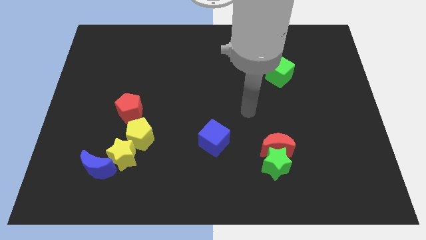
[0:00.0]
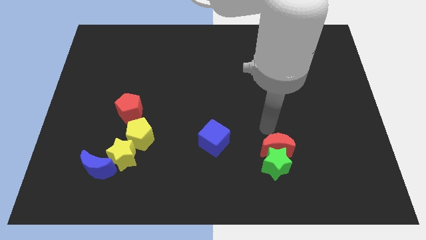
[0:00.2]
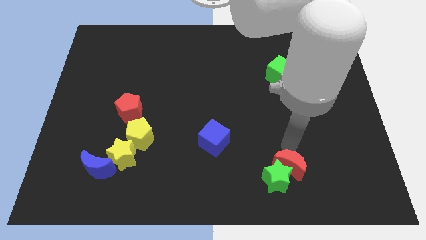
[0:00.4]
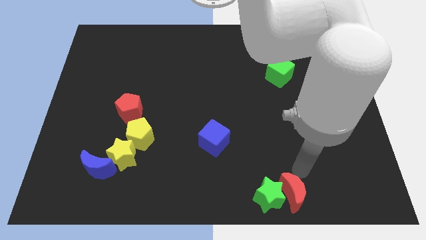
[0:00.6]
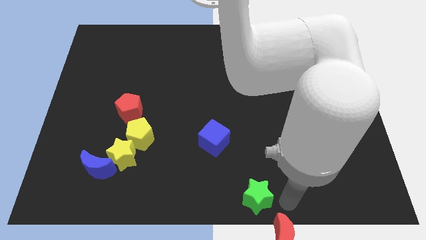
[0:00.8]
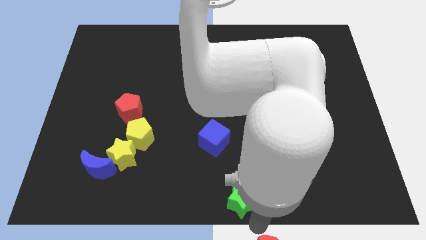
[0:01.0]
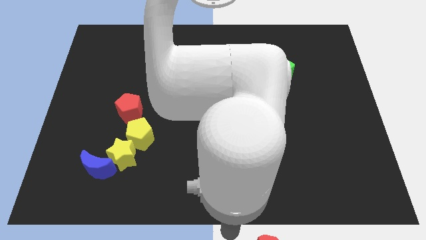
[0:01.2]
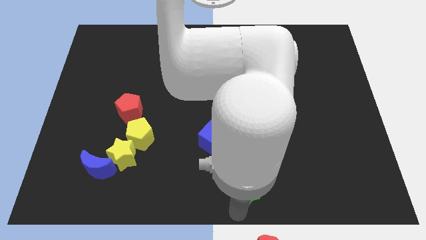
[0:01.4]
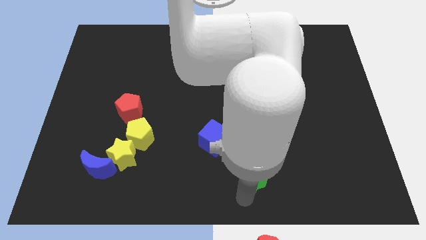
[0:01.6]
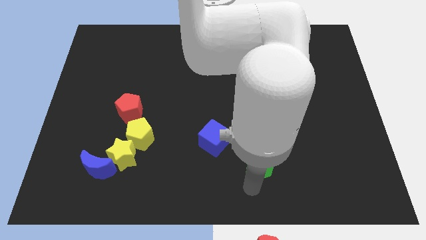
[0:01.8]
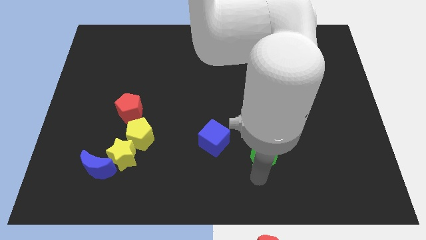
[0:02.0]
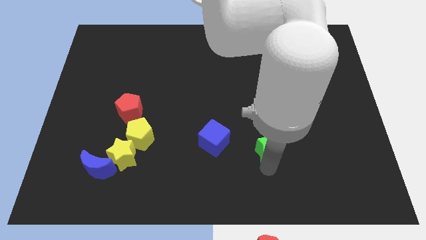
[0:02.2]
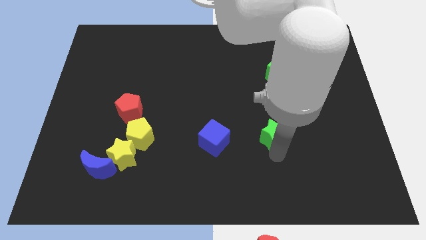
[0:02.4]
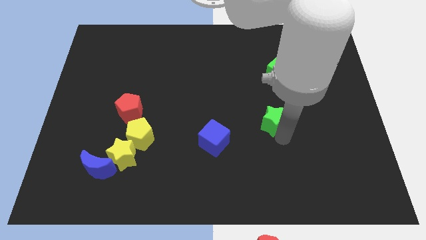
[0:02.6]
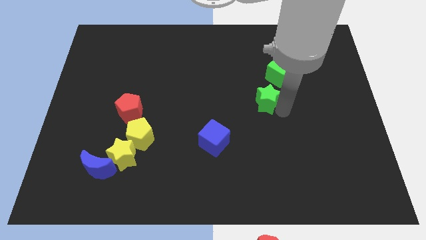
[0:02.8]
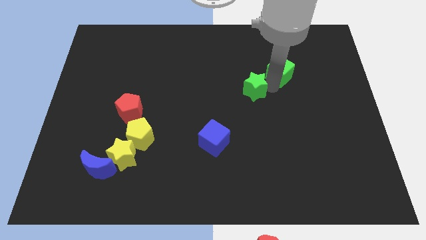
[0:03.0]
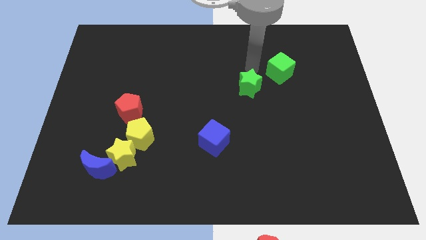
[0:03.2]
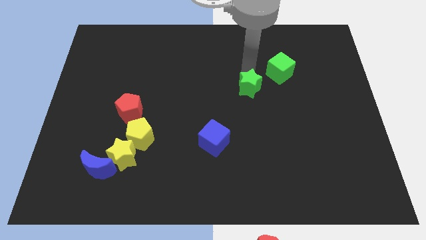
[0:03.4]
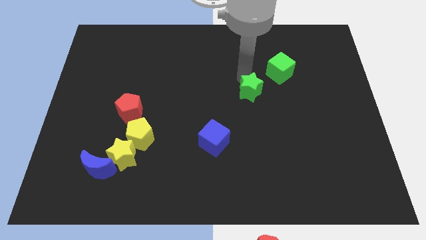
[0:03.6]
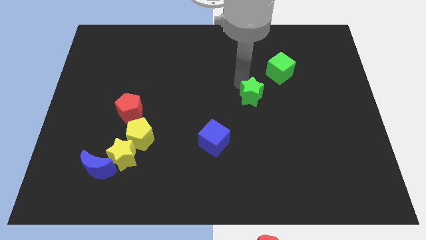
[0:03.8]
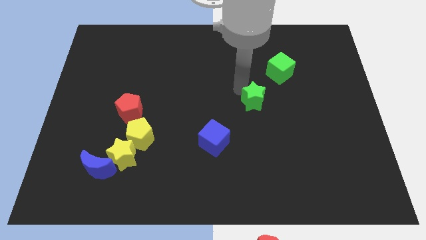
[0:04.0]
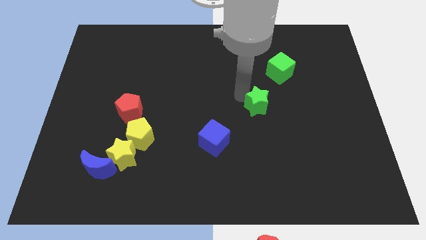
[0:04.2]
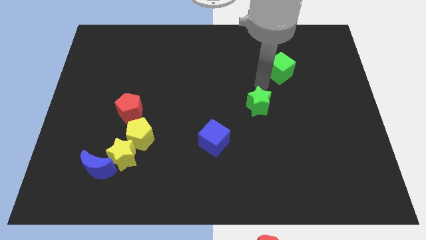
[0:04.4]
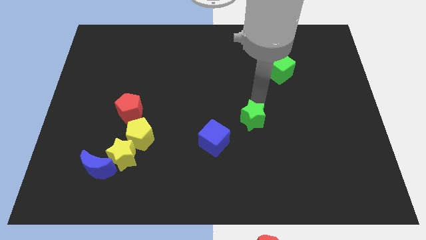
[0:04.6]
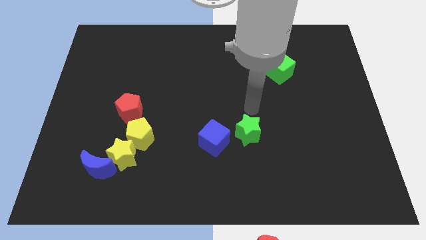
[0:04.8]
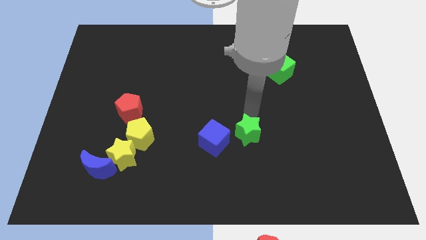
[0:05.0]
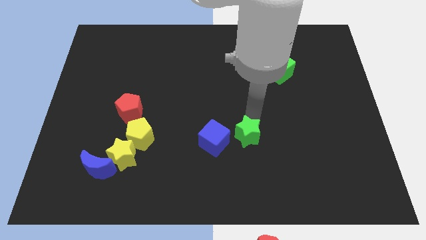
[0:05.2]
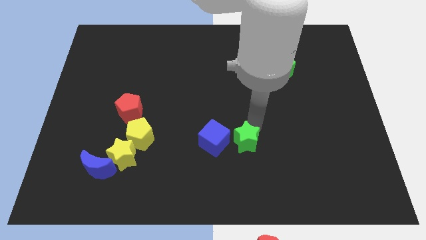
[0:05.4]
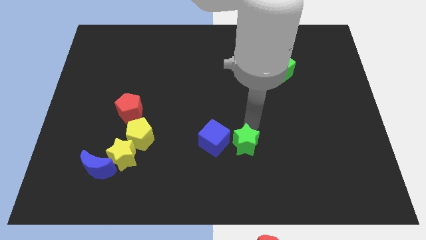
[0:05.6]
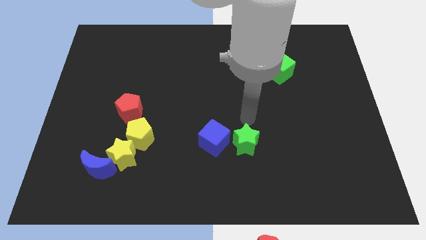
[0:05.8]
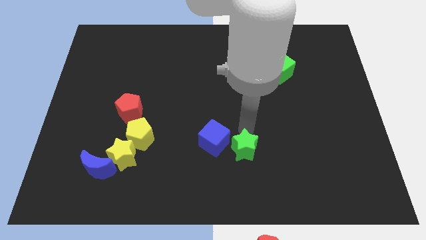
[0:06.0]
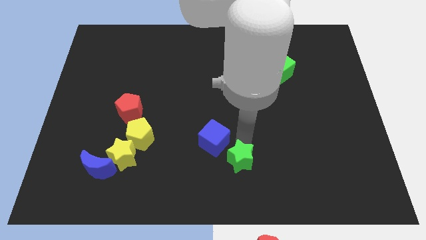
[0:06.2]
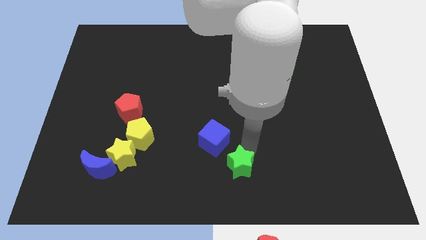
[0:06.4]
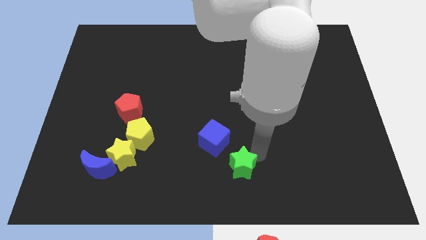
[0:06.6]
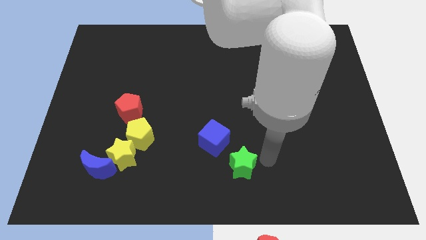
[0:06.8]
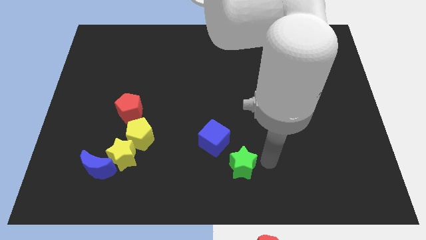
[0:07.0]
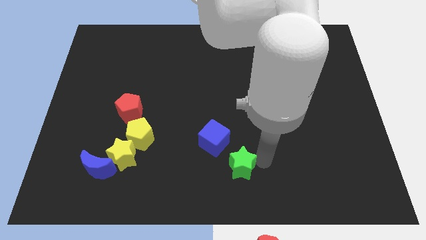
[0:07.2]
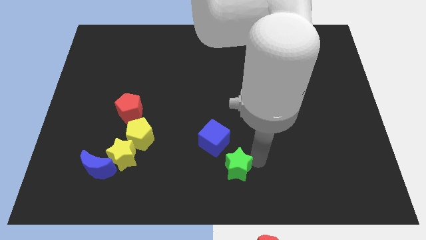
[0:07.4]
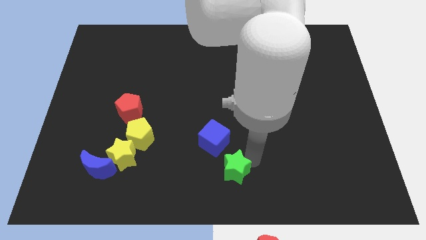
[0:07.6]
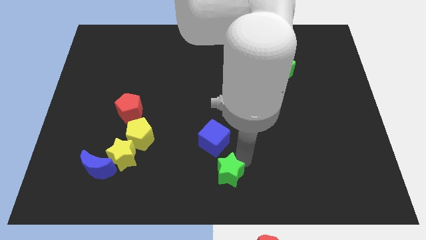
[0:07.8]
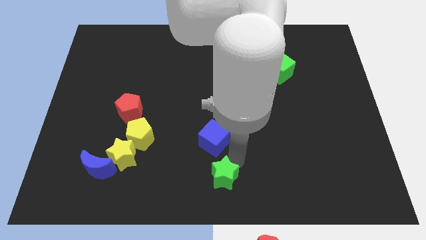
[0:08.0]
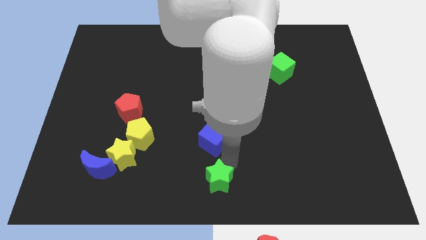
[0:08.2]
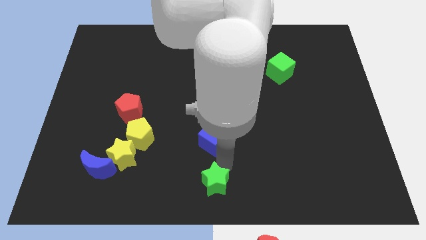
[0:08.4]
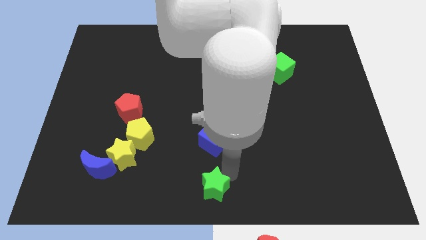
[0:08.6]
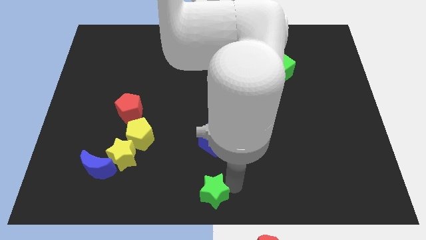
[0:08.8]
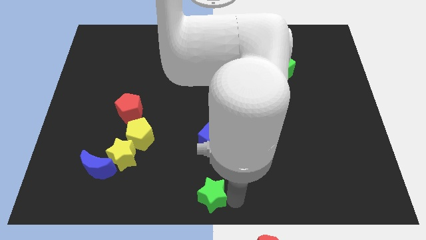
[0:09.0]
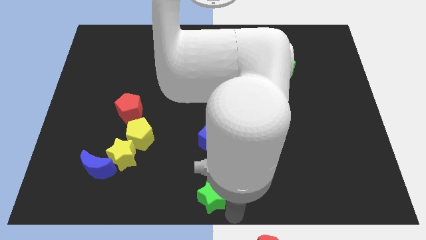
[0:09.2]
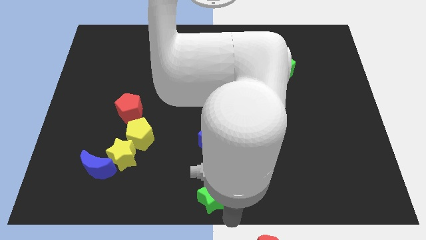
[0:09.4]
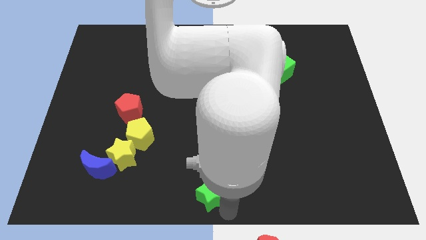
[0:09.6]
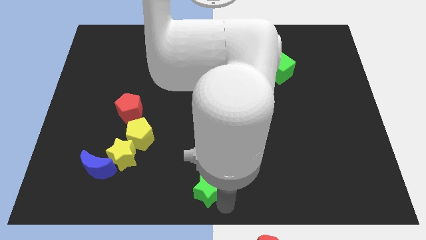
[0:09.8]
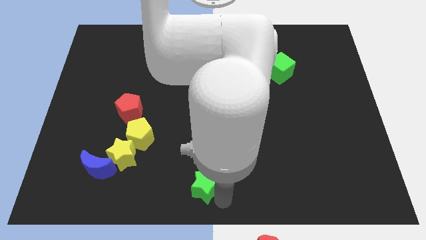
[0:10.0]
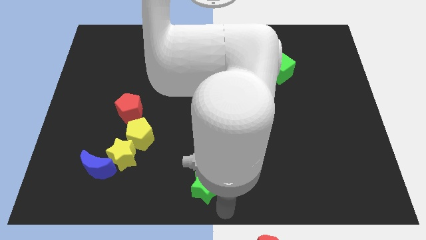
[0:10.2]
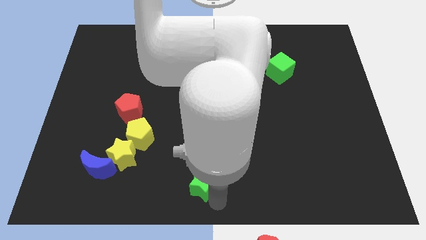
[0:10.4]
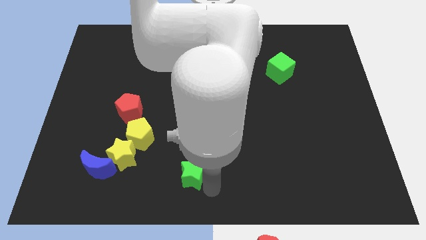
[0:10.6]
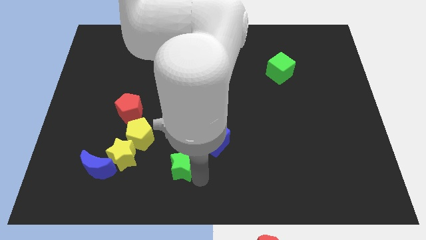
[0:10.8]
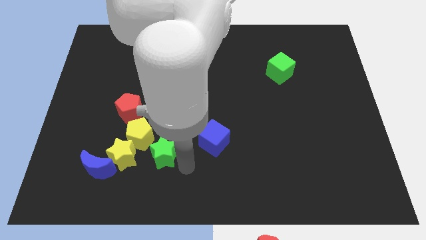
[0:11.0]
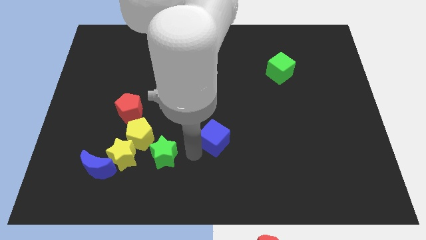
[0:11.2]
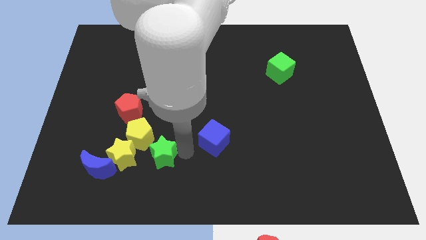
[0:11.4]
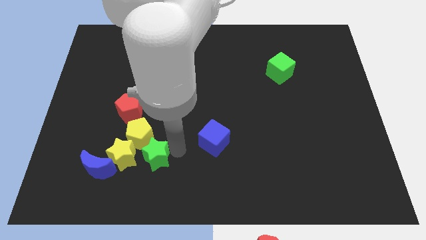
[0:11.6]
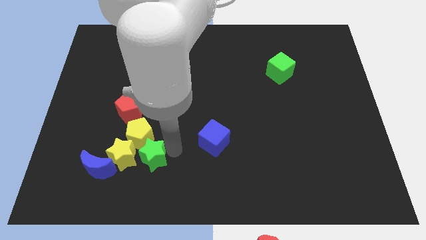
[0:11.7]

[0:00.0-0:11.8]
slide the green star to the yellow star
